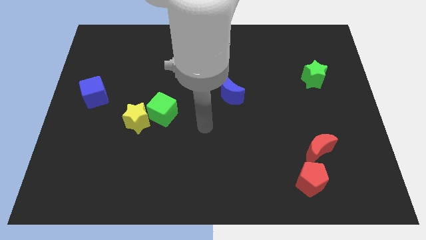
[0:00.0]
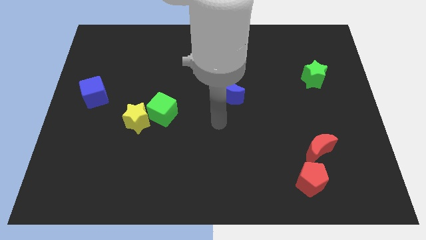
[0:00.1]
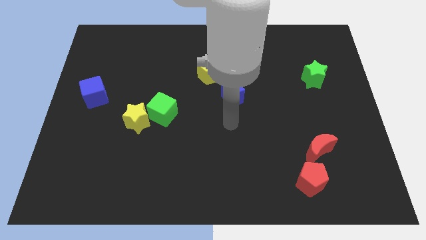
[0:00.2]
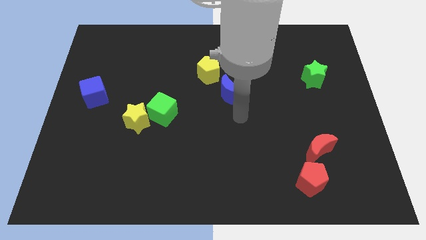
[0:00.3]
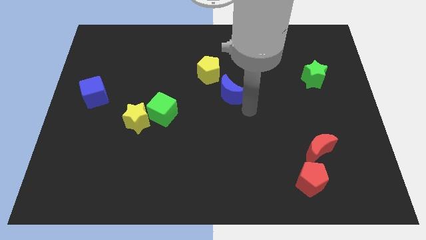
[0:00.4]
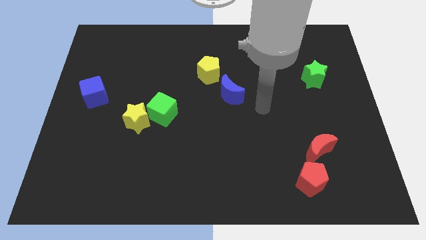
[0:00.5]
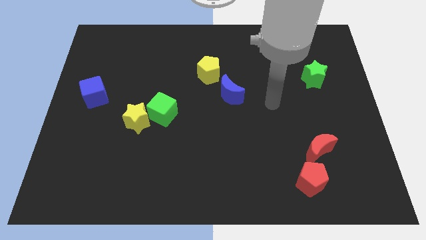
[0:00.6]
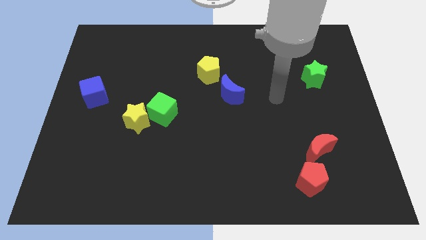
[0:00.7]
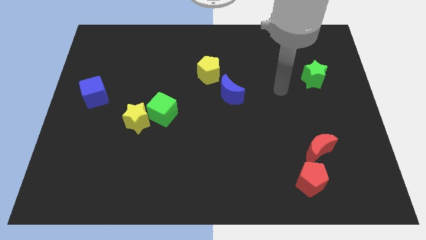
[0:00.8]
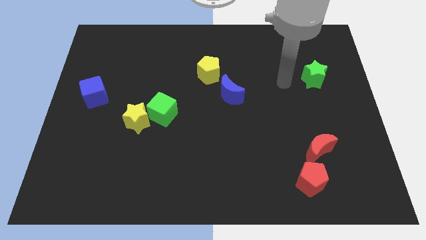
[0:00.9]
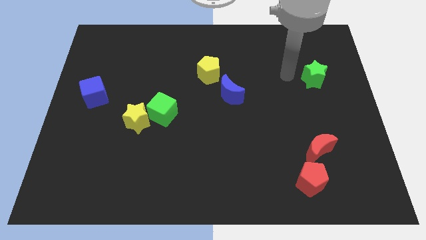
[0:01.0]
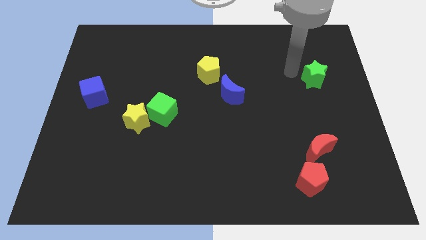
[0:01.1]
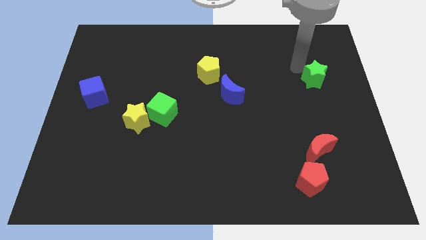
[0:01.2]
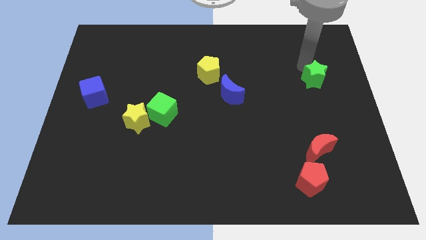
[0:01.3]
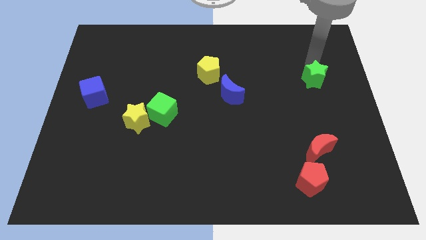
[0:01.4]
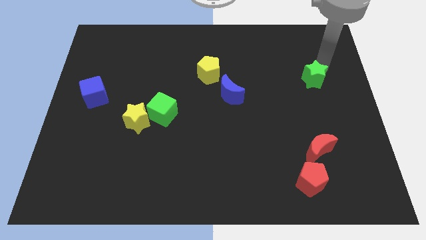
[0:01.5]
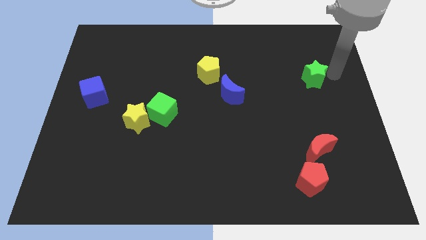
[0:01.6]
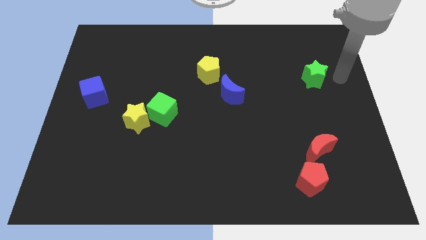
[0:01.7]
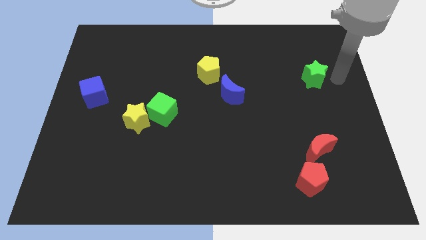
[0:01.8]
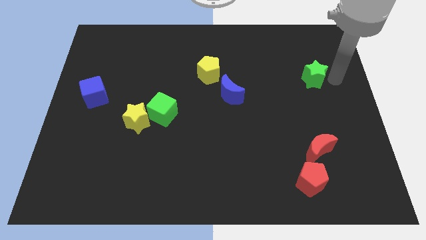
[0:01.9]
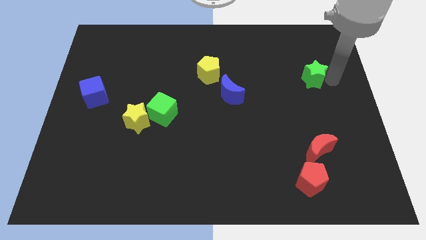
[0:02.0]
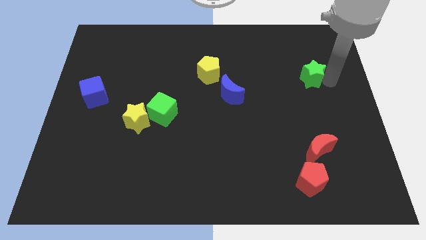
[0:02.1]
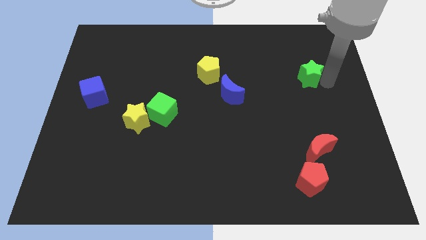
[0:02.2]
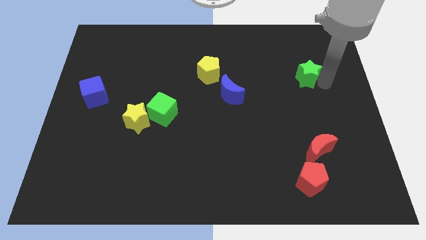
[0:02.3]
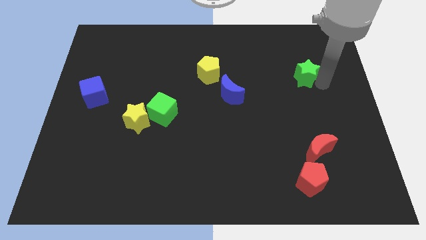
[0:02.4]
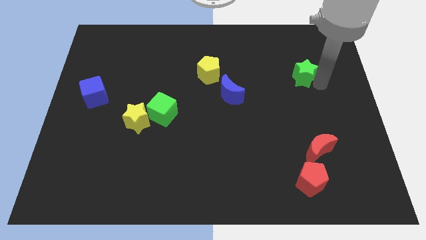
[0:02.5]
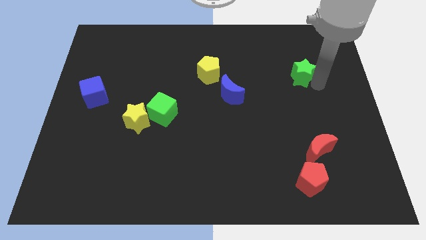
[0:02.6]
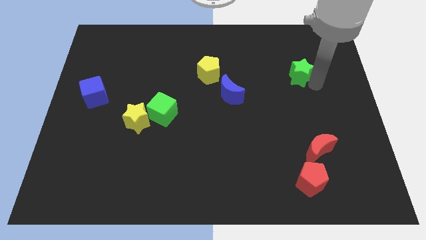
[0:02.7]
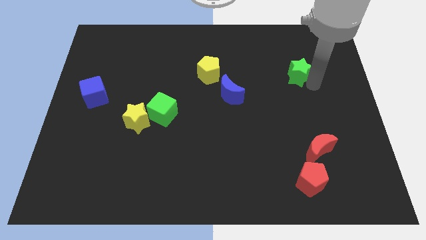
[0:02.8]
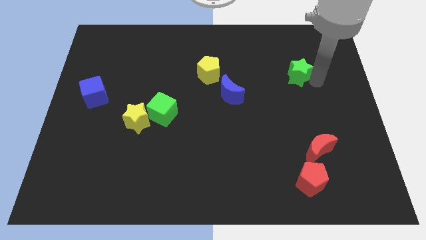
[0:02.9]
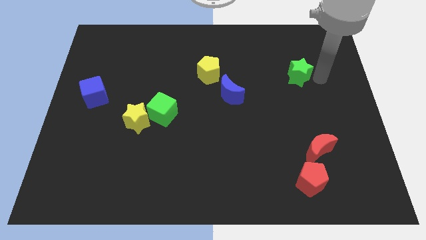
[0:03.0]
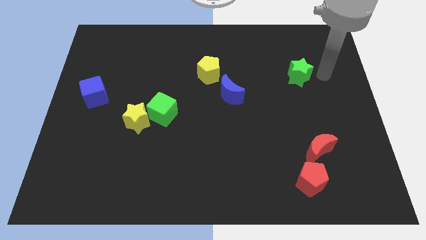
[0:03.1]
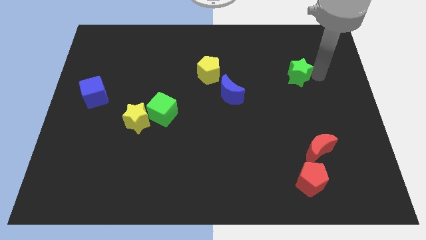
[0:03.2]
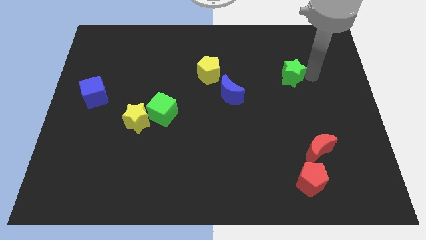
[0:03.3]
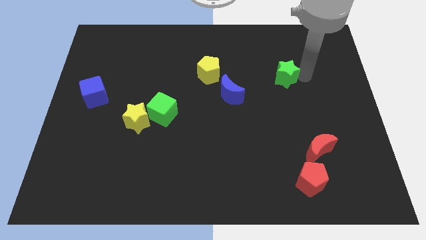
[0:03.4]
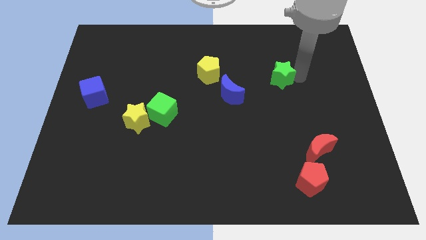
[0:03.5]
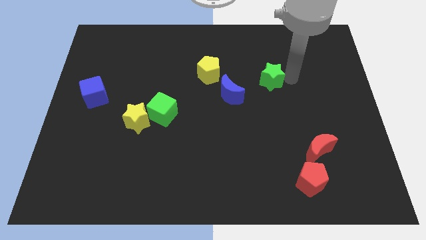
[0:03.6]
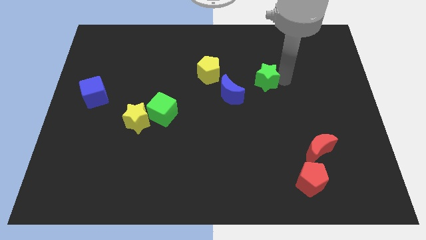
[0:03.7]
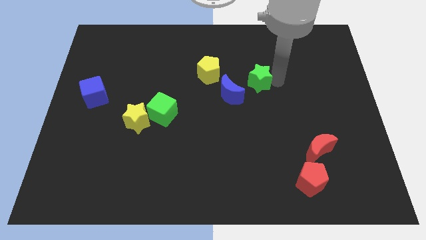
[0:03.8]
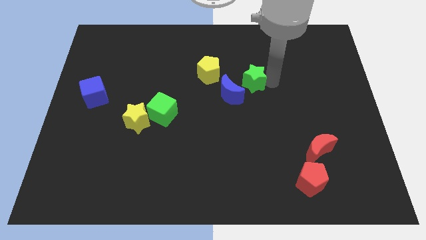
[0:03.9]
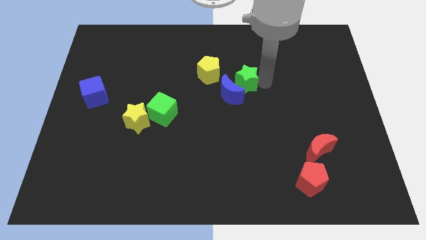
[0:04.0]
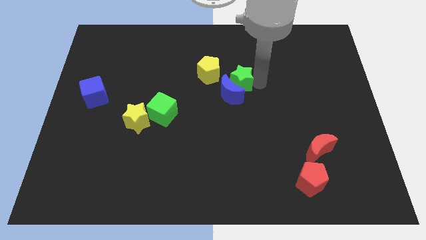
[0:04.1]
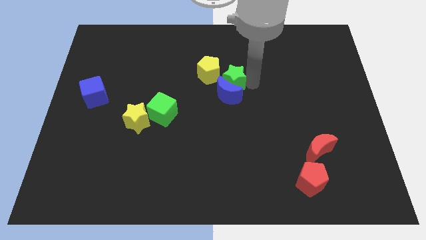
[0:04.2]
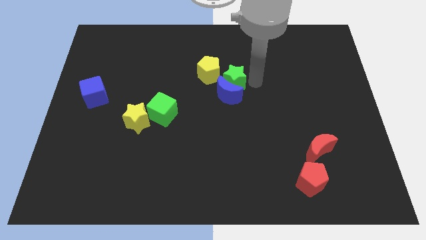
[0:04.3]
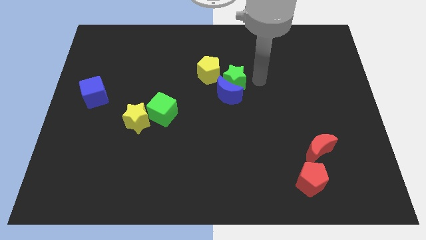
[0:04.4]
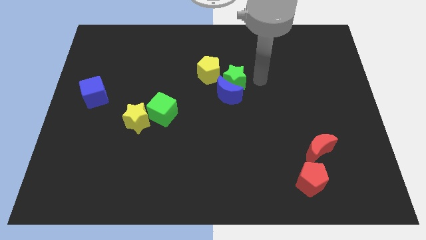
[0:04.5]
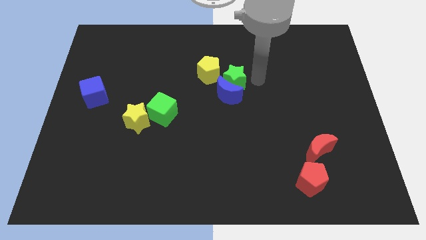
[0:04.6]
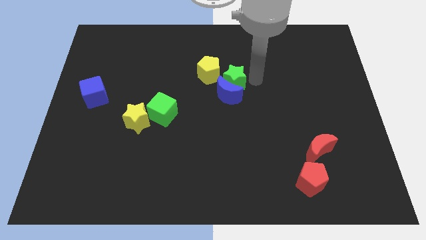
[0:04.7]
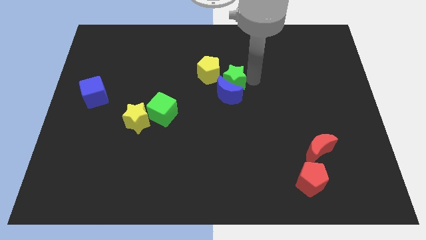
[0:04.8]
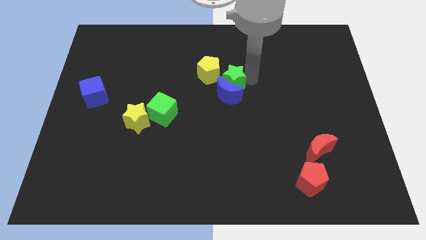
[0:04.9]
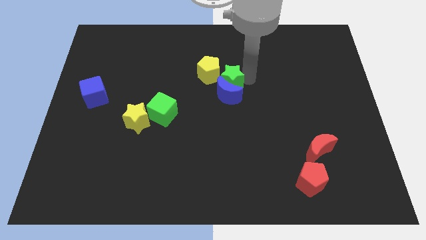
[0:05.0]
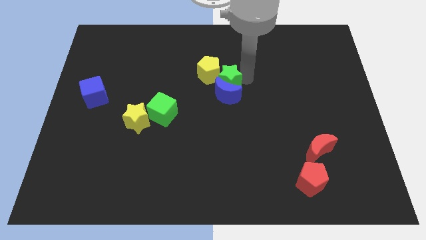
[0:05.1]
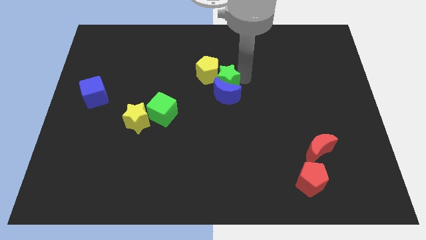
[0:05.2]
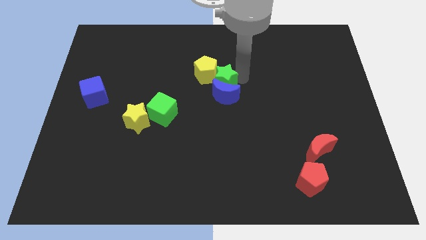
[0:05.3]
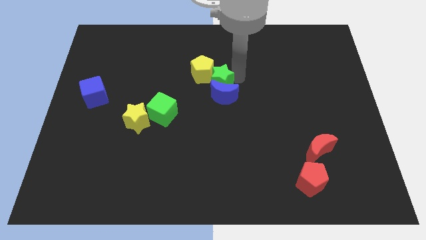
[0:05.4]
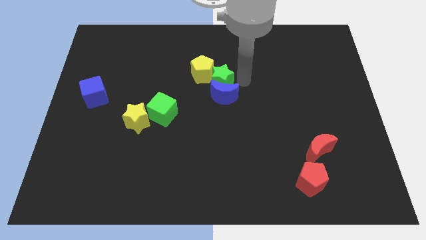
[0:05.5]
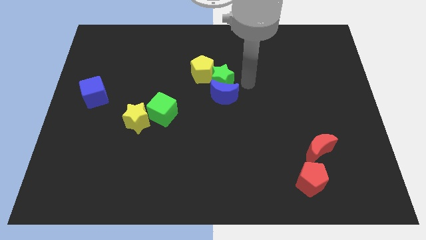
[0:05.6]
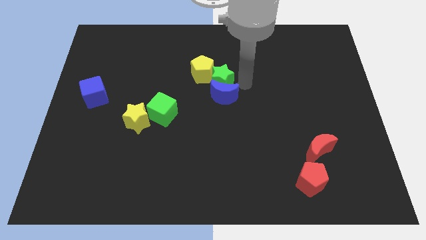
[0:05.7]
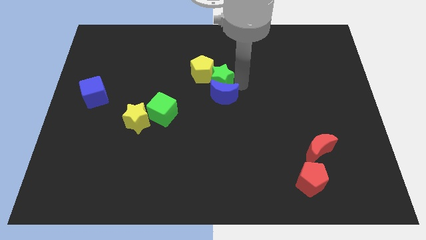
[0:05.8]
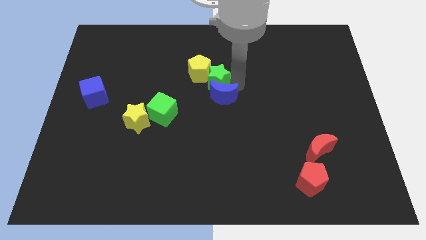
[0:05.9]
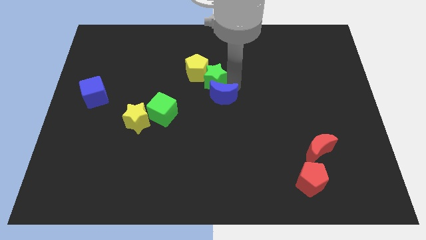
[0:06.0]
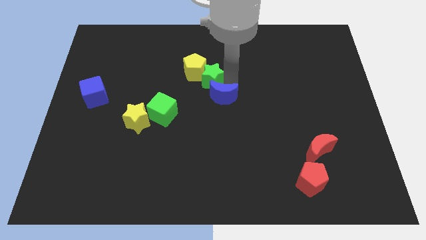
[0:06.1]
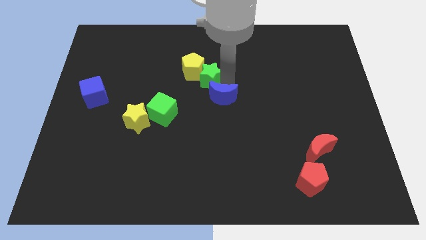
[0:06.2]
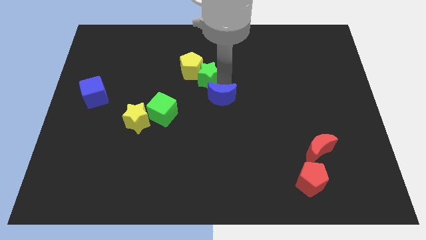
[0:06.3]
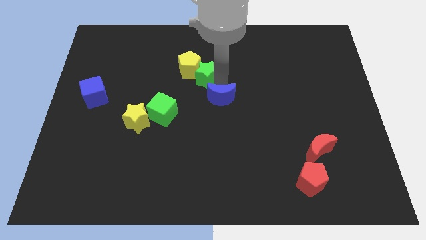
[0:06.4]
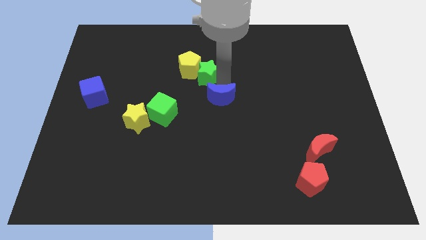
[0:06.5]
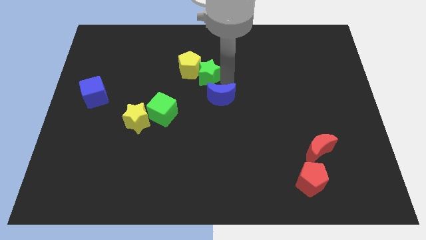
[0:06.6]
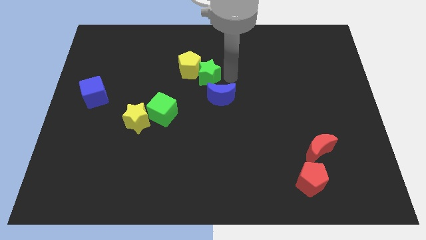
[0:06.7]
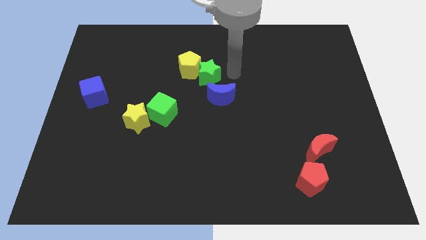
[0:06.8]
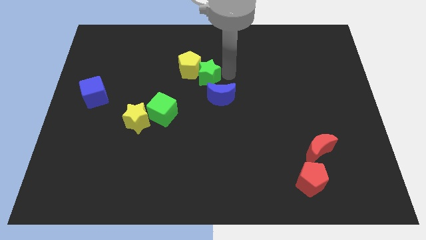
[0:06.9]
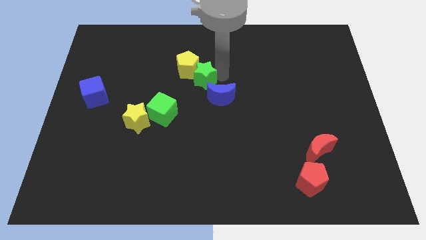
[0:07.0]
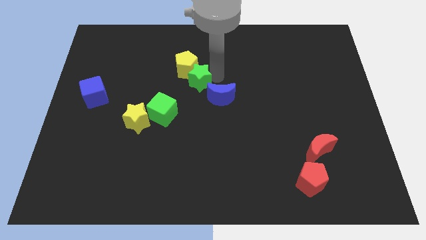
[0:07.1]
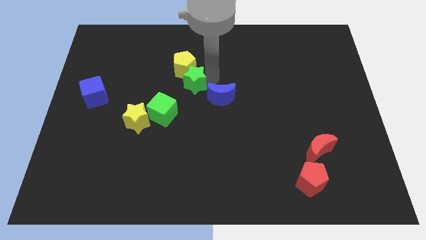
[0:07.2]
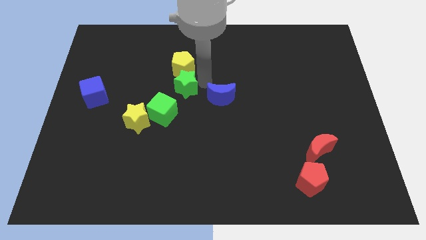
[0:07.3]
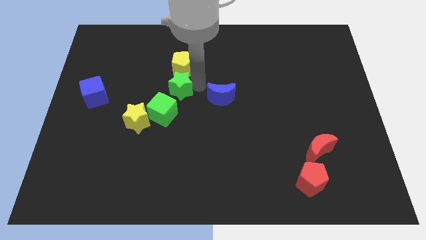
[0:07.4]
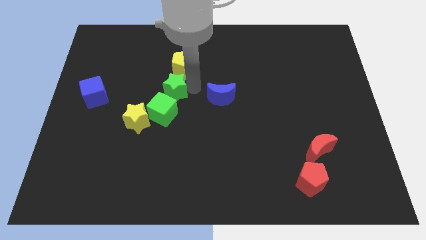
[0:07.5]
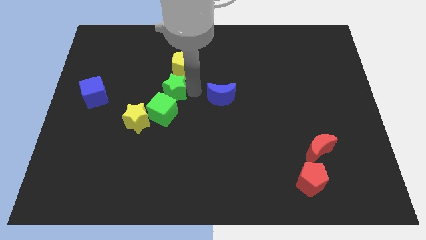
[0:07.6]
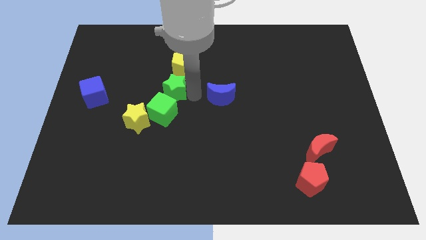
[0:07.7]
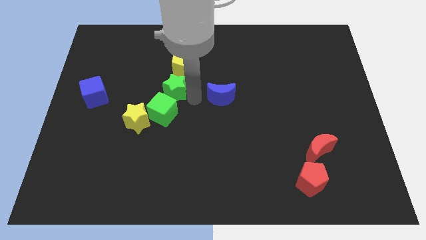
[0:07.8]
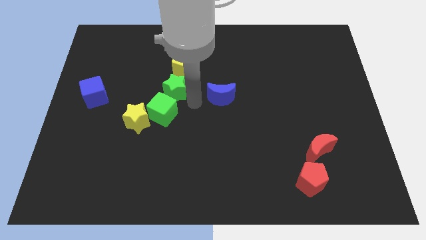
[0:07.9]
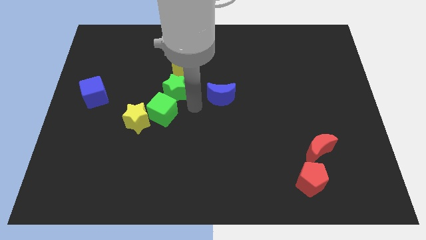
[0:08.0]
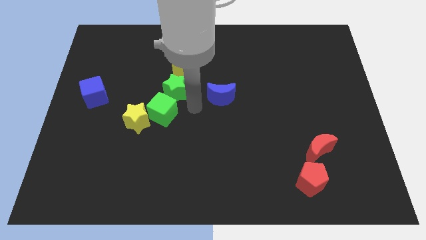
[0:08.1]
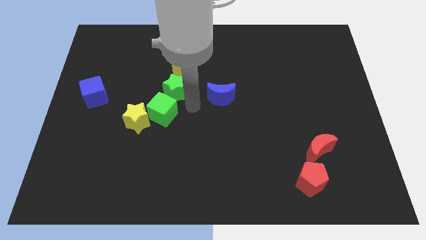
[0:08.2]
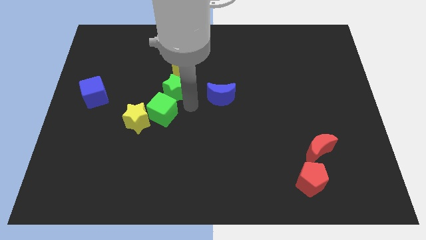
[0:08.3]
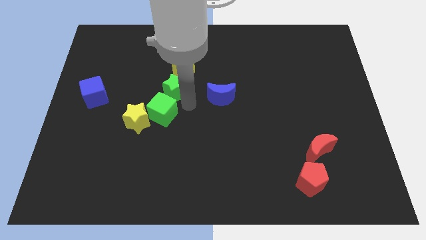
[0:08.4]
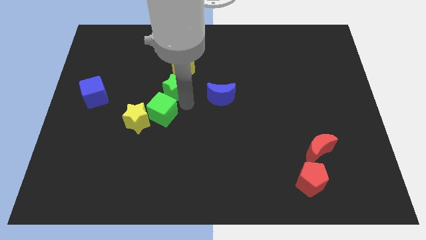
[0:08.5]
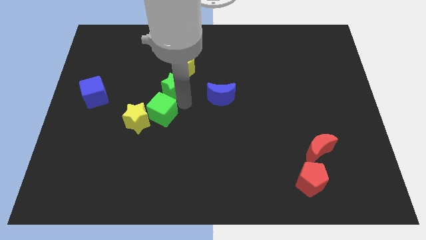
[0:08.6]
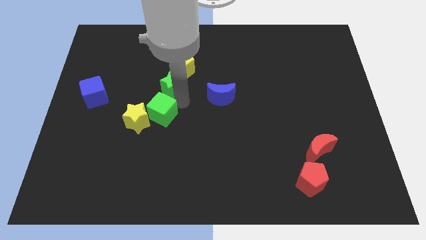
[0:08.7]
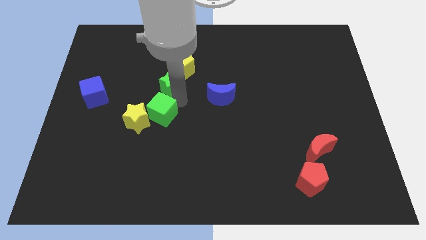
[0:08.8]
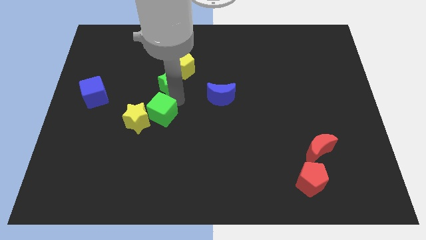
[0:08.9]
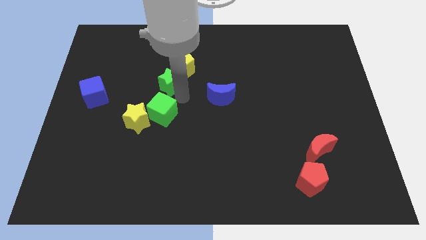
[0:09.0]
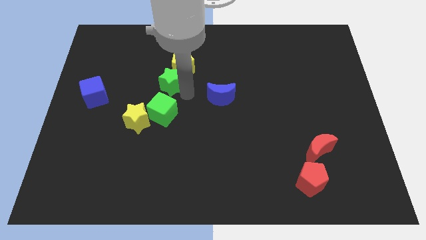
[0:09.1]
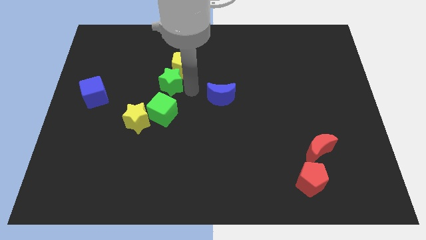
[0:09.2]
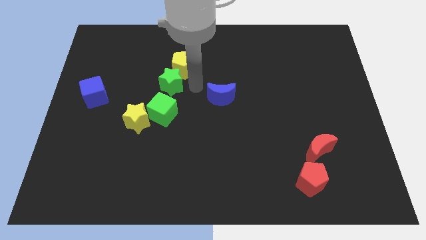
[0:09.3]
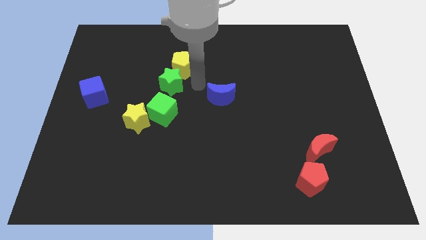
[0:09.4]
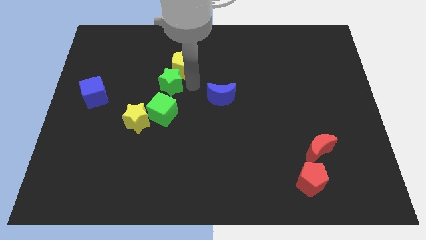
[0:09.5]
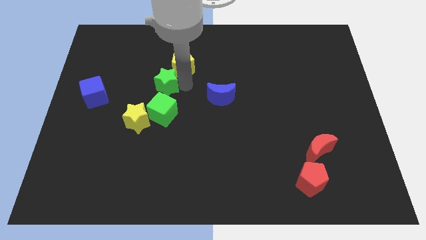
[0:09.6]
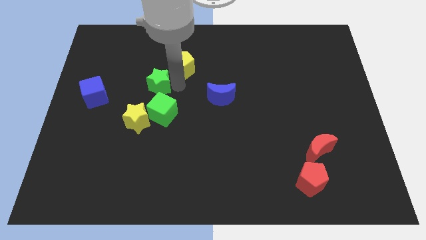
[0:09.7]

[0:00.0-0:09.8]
push the green star above the yellow star
